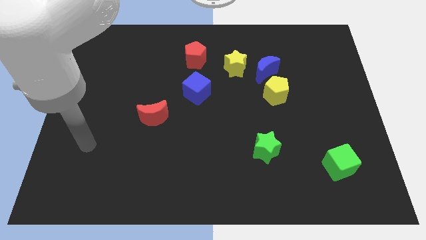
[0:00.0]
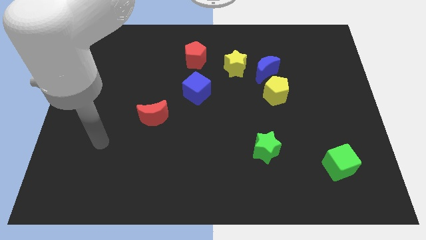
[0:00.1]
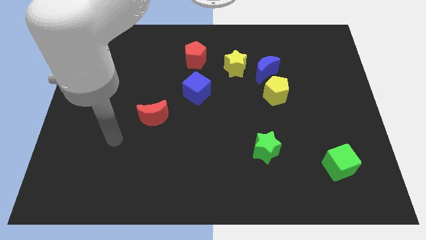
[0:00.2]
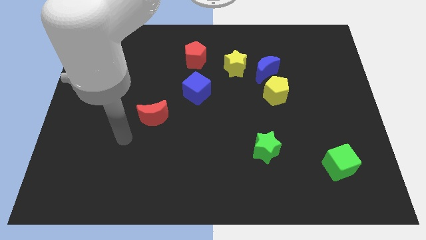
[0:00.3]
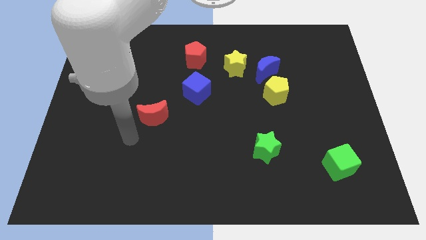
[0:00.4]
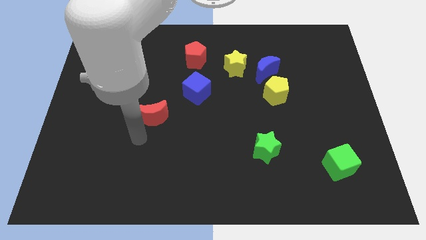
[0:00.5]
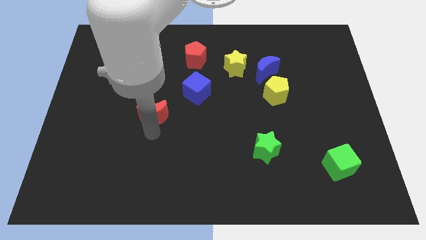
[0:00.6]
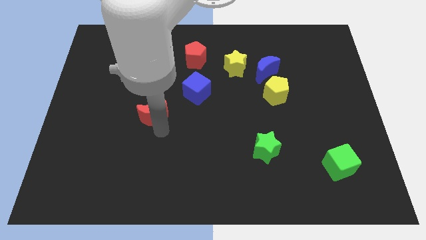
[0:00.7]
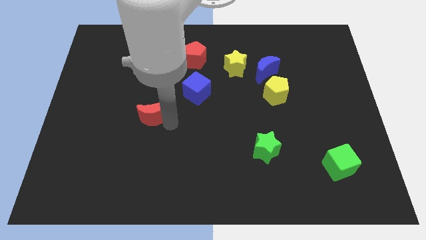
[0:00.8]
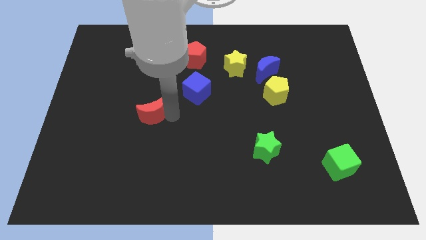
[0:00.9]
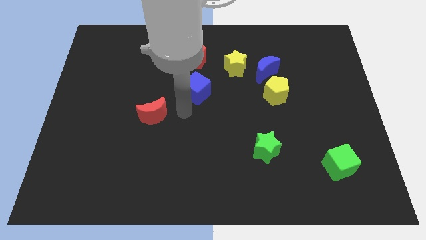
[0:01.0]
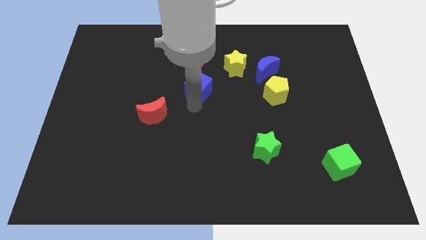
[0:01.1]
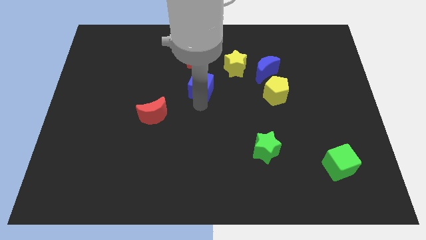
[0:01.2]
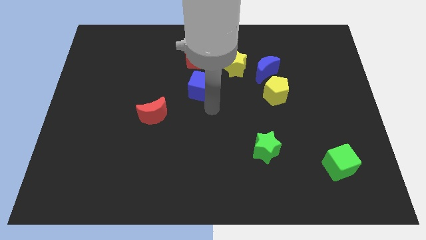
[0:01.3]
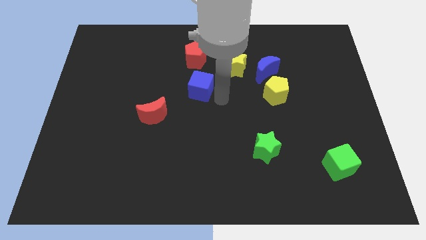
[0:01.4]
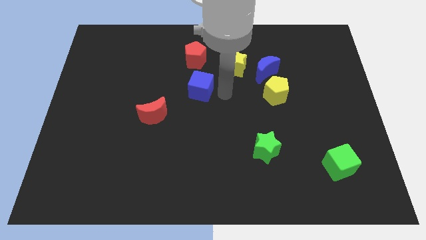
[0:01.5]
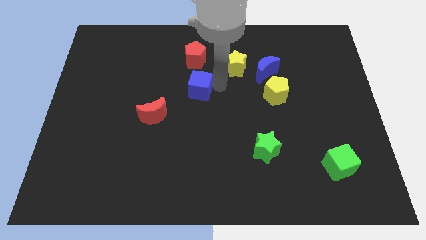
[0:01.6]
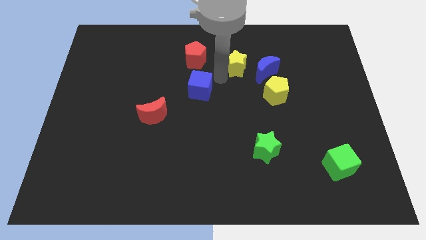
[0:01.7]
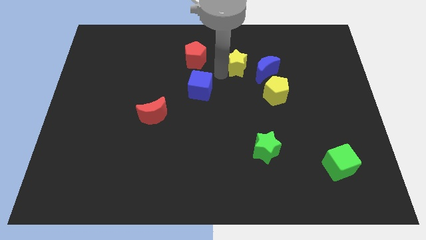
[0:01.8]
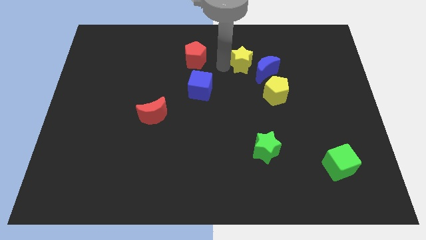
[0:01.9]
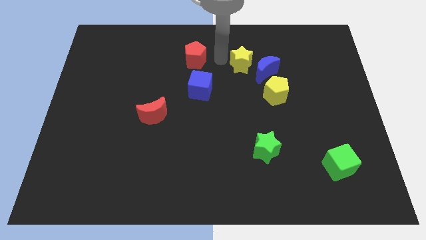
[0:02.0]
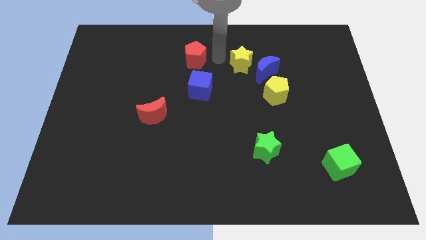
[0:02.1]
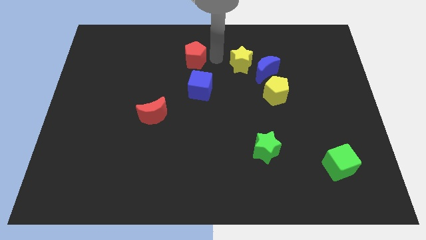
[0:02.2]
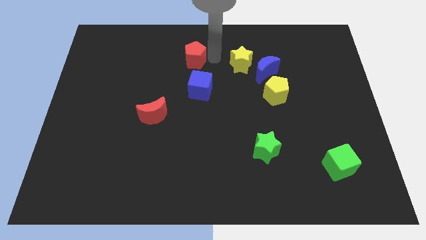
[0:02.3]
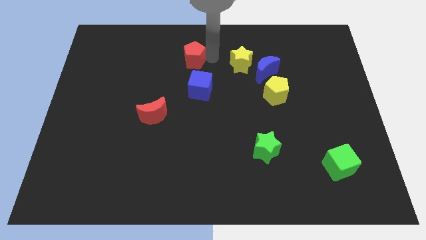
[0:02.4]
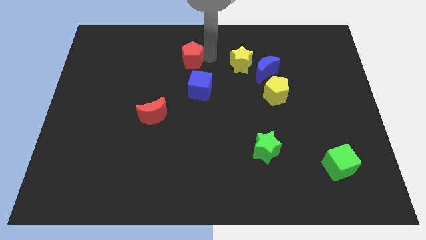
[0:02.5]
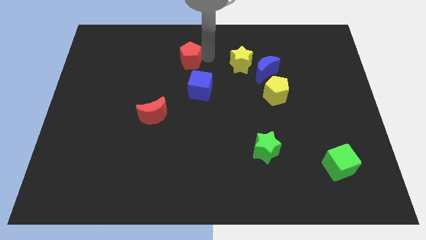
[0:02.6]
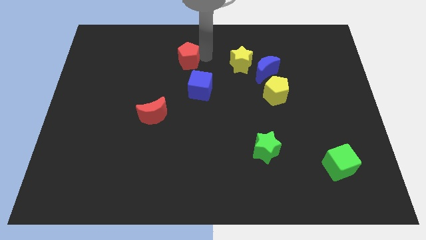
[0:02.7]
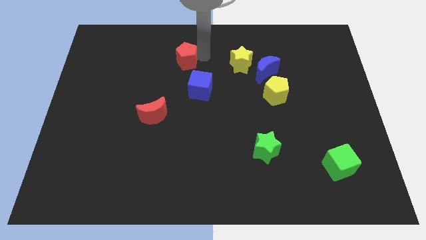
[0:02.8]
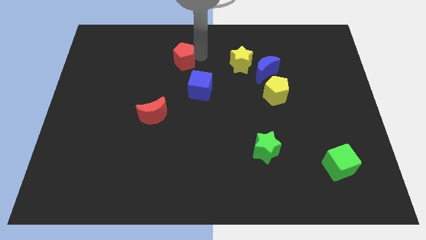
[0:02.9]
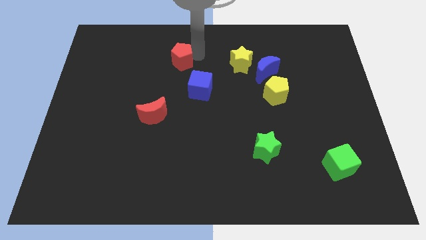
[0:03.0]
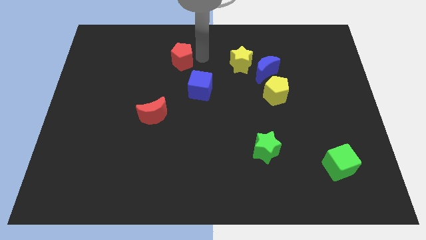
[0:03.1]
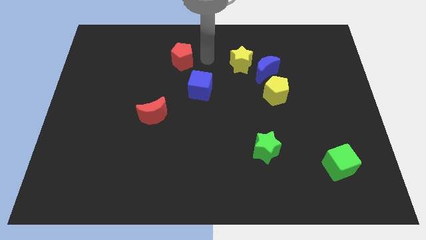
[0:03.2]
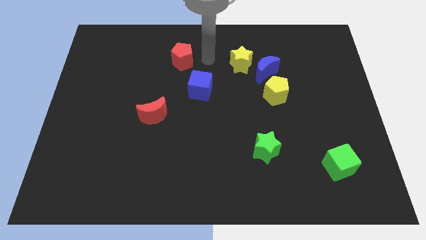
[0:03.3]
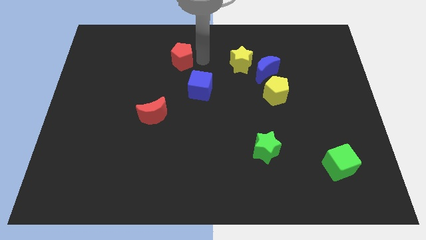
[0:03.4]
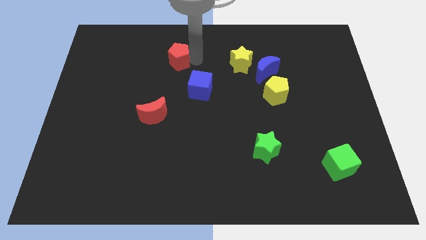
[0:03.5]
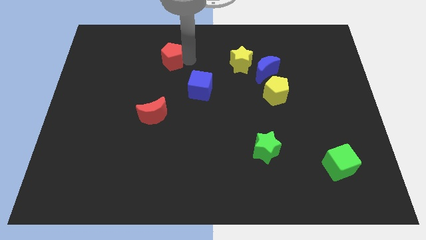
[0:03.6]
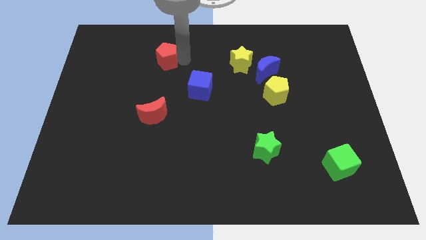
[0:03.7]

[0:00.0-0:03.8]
move the red pentagon a little to the left

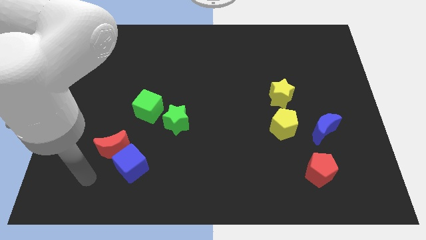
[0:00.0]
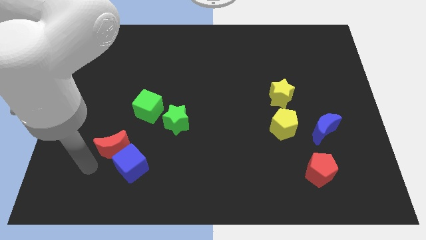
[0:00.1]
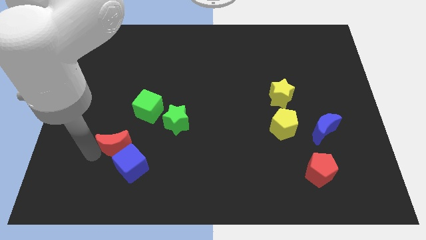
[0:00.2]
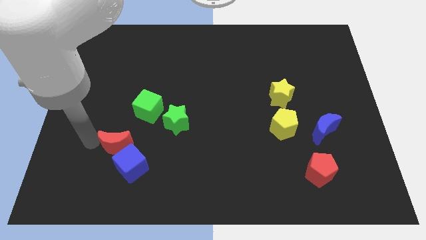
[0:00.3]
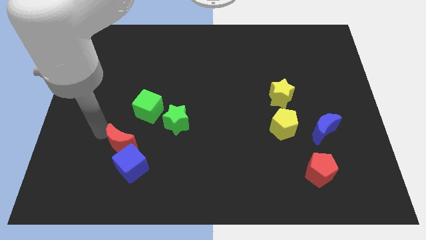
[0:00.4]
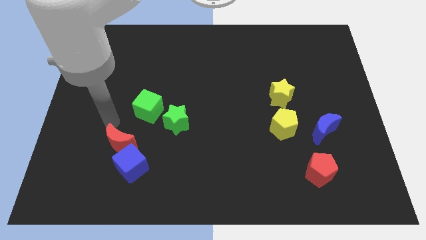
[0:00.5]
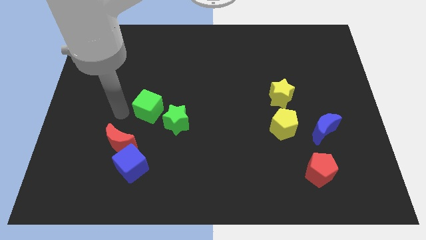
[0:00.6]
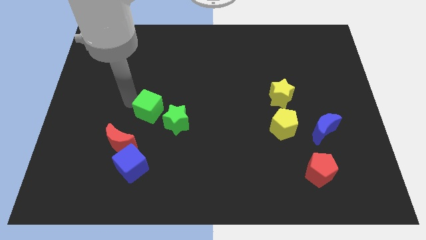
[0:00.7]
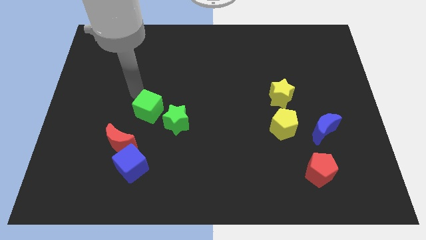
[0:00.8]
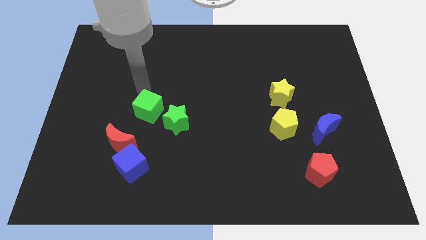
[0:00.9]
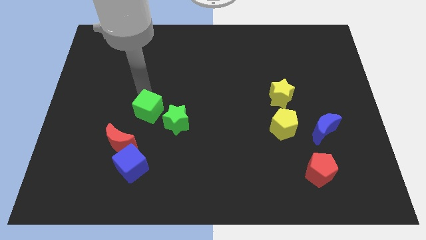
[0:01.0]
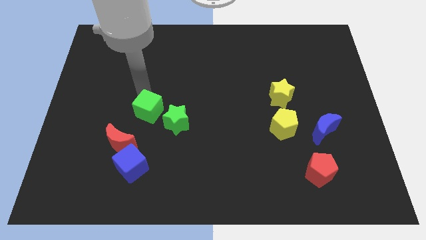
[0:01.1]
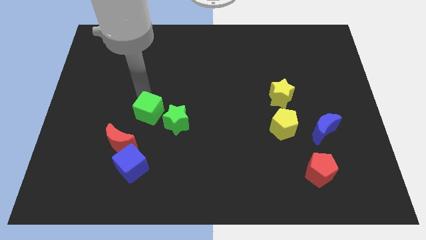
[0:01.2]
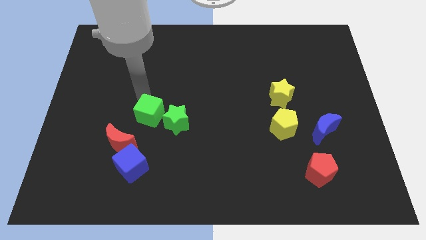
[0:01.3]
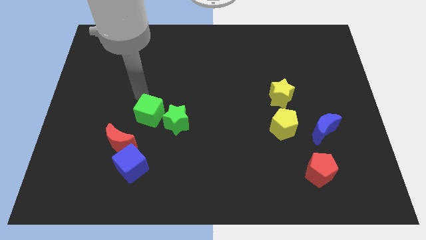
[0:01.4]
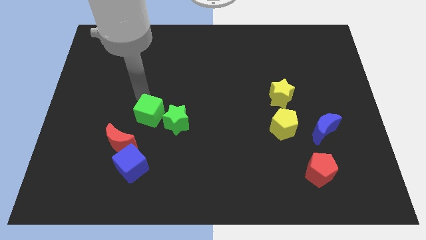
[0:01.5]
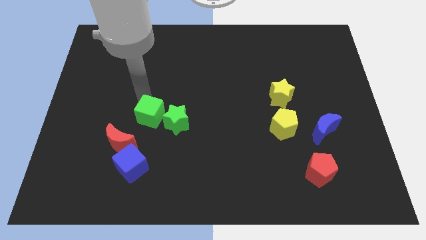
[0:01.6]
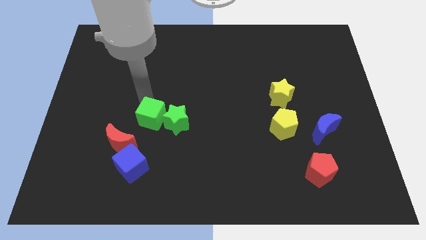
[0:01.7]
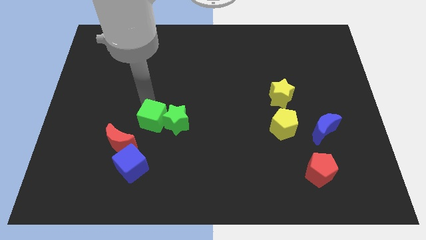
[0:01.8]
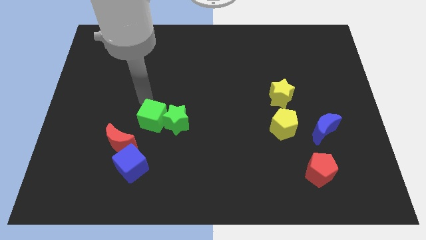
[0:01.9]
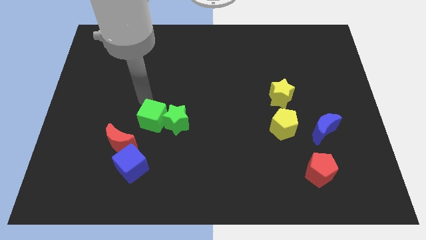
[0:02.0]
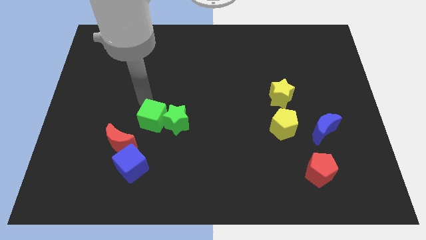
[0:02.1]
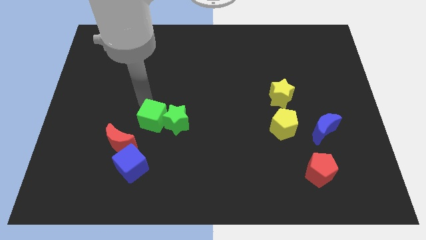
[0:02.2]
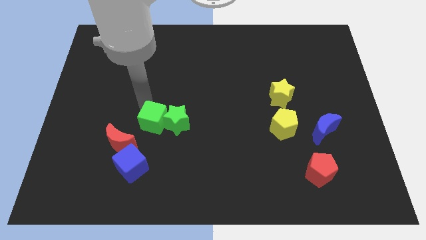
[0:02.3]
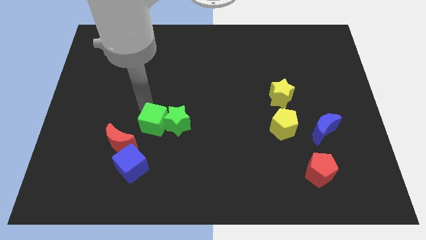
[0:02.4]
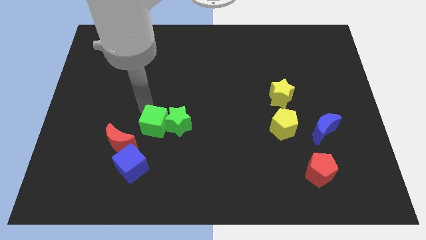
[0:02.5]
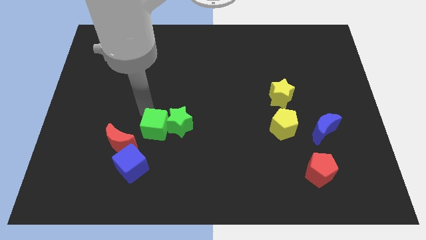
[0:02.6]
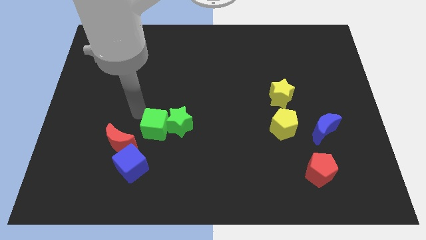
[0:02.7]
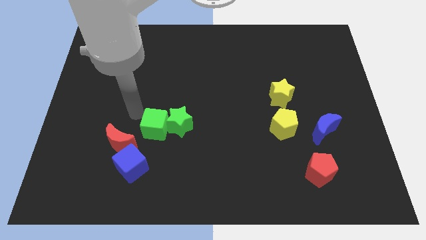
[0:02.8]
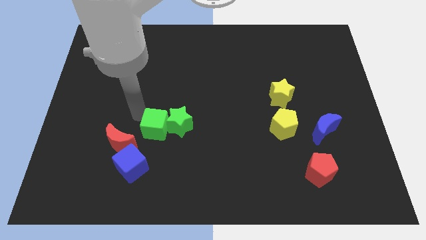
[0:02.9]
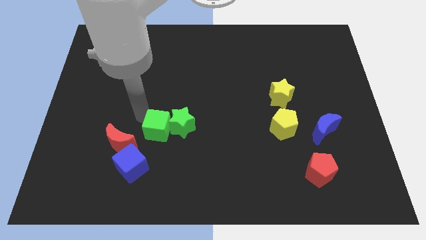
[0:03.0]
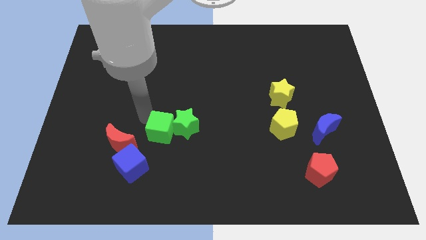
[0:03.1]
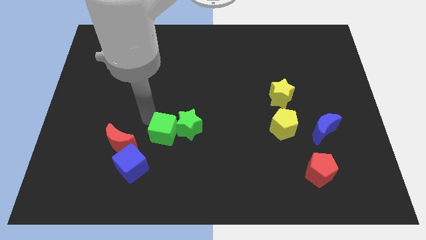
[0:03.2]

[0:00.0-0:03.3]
slightly move the green cube diagonally down and to the right

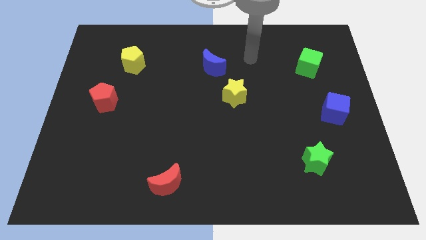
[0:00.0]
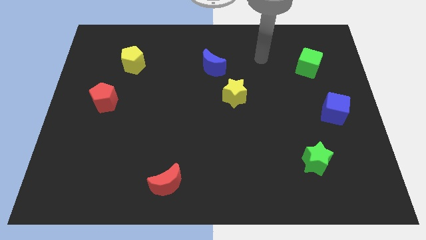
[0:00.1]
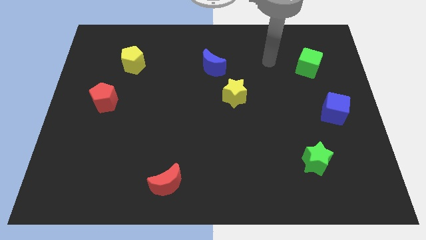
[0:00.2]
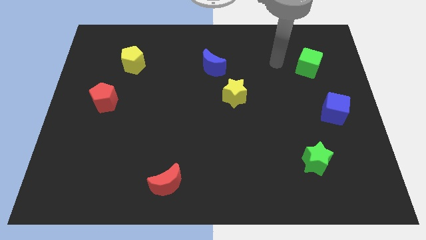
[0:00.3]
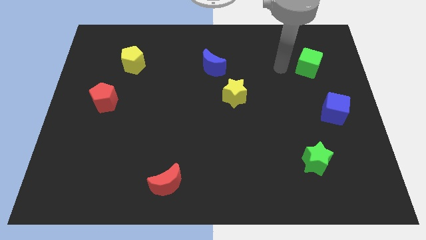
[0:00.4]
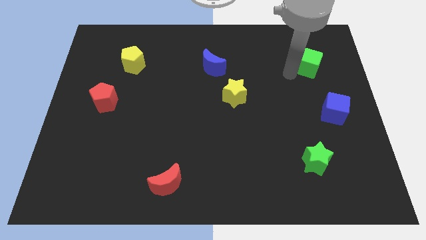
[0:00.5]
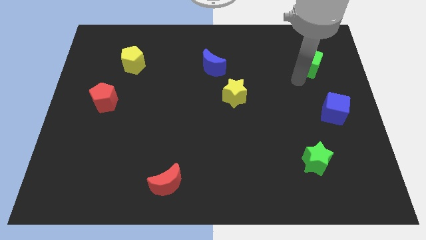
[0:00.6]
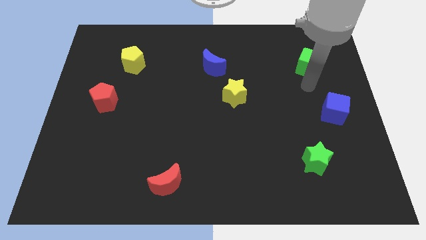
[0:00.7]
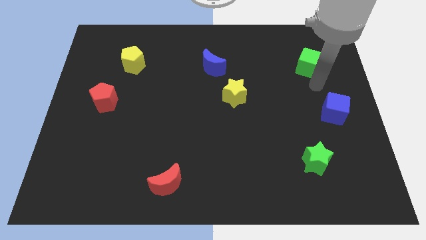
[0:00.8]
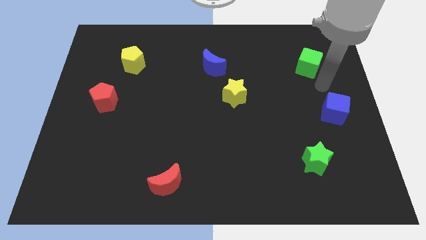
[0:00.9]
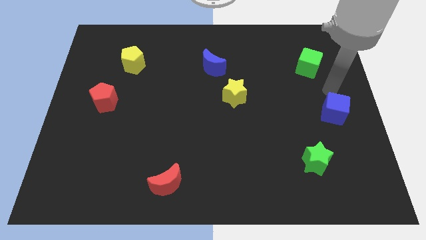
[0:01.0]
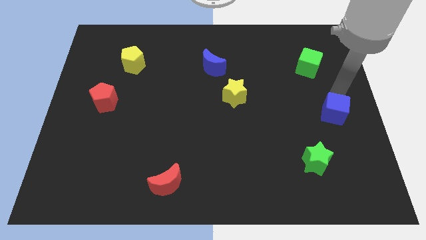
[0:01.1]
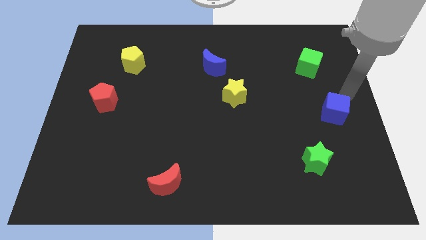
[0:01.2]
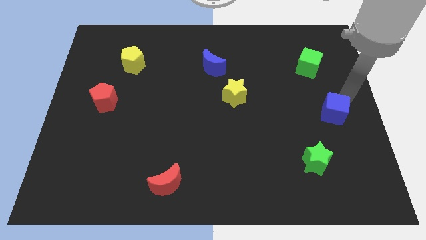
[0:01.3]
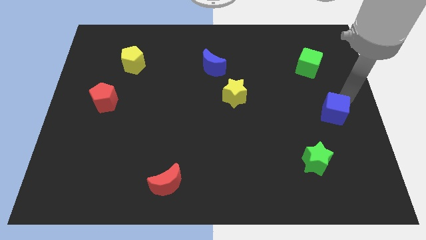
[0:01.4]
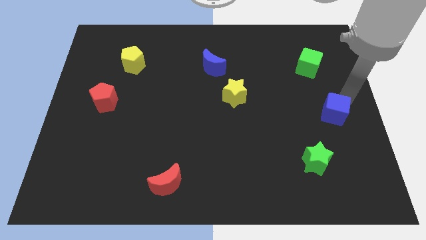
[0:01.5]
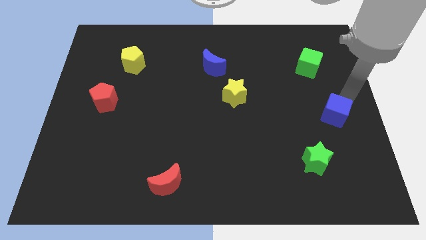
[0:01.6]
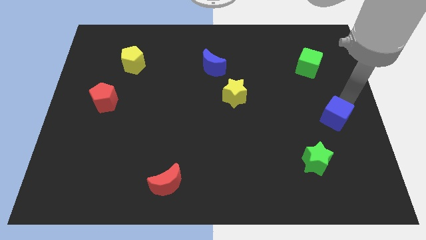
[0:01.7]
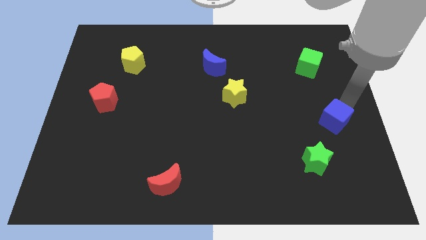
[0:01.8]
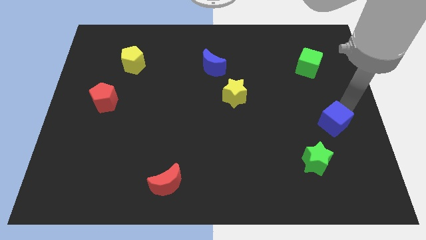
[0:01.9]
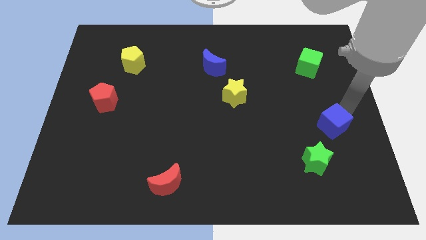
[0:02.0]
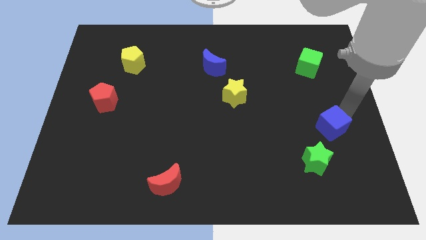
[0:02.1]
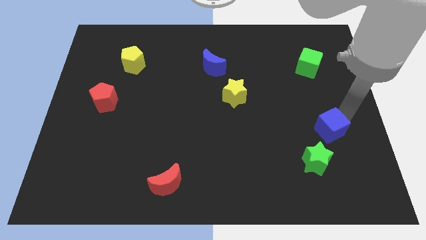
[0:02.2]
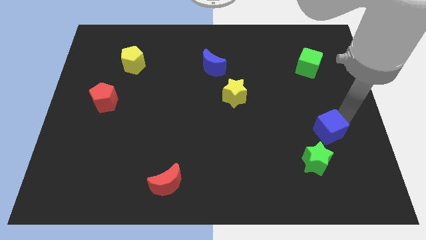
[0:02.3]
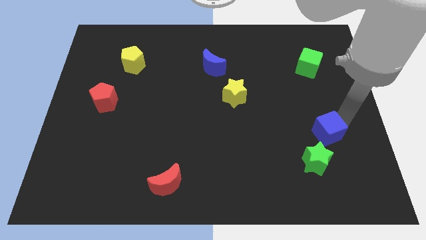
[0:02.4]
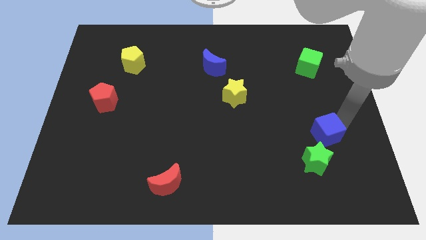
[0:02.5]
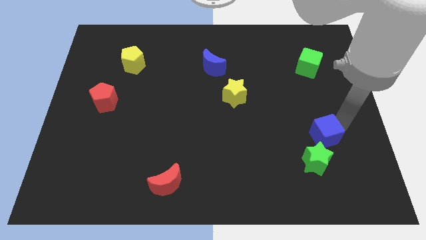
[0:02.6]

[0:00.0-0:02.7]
push the blue cube slightly downwards and left diagonally
